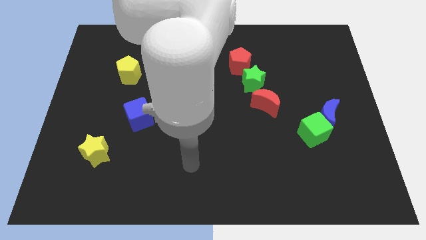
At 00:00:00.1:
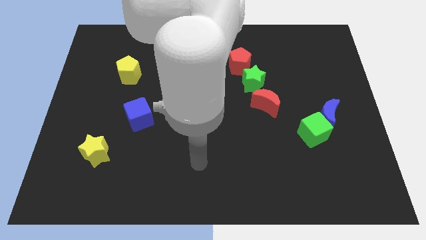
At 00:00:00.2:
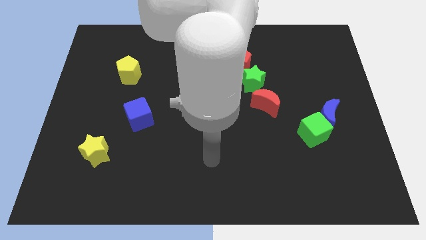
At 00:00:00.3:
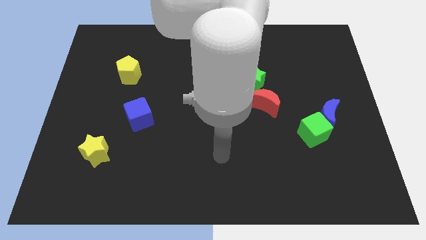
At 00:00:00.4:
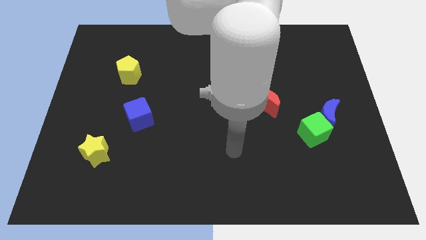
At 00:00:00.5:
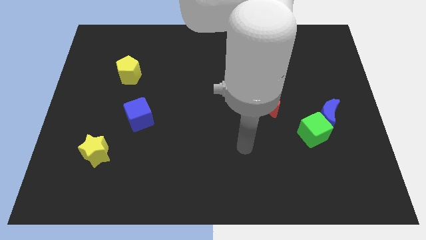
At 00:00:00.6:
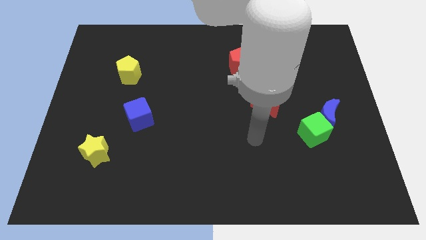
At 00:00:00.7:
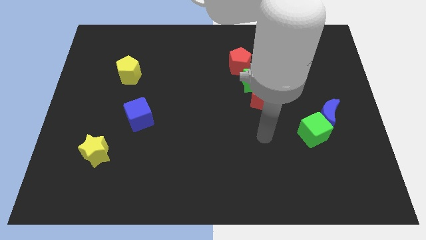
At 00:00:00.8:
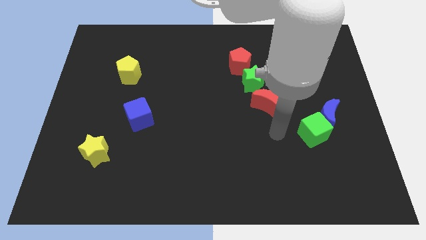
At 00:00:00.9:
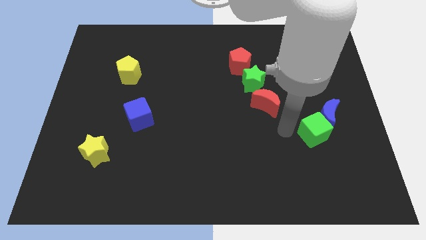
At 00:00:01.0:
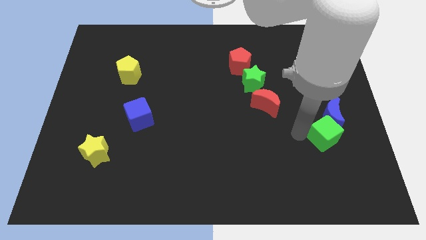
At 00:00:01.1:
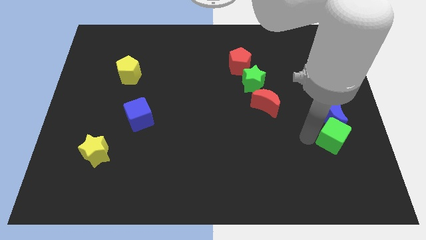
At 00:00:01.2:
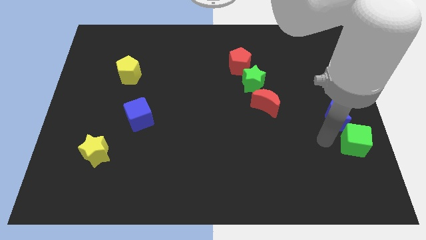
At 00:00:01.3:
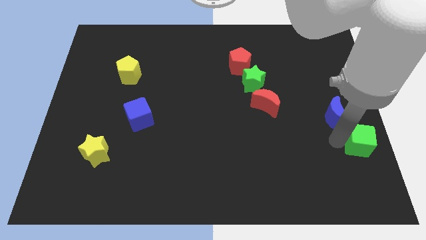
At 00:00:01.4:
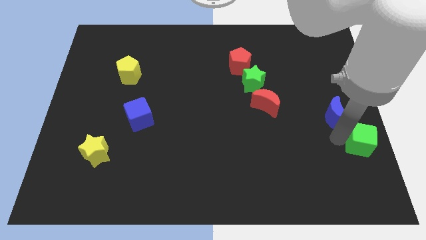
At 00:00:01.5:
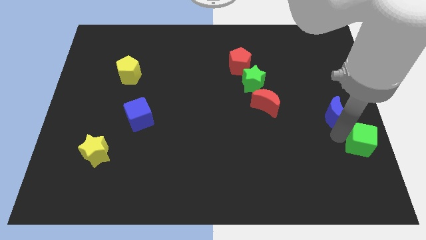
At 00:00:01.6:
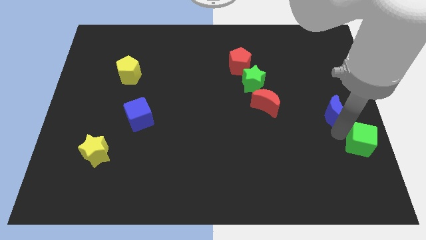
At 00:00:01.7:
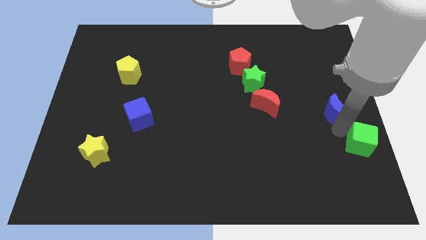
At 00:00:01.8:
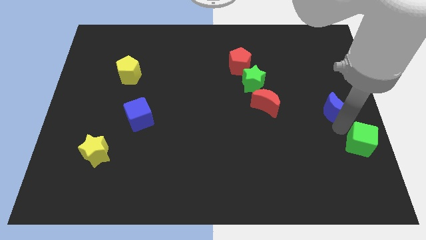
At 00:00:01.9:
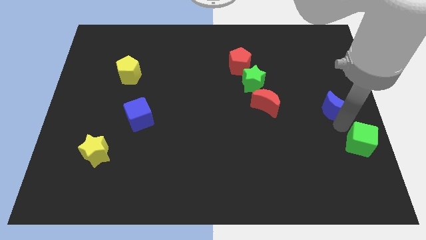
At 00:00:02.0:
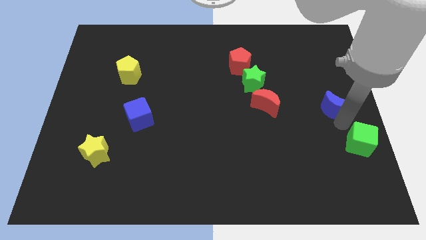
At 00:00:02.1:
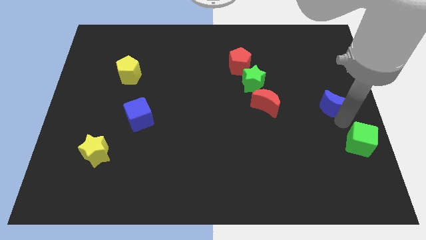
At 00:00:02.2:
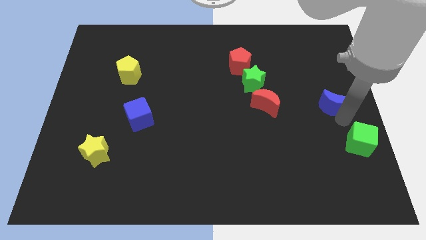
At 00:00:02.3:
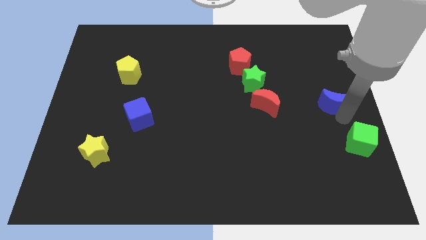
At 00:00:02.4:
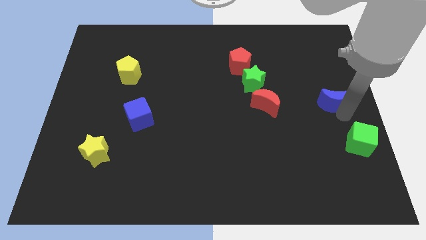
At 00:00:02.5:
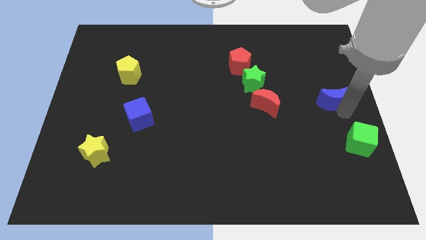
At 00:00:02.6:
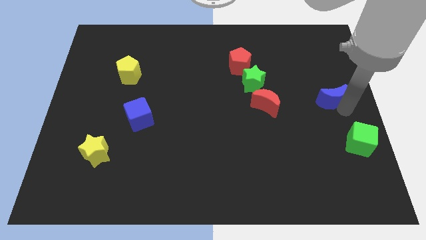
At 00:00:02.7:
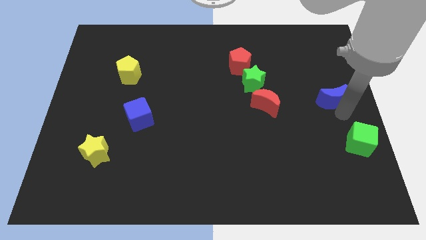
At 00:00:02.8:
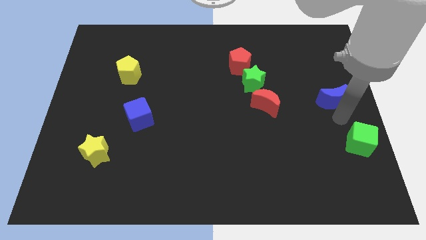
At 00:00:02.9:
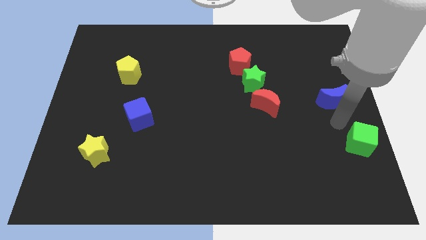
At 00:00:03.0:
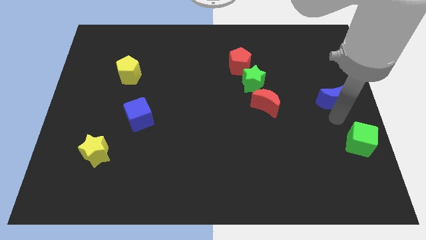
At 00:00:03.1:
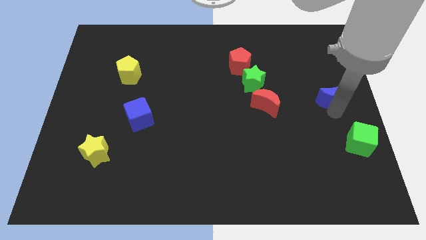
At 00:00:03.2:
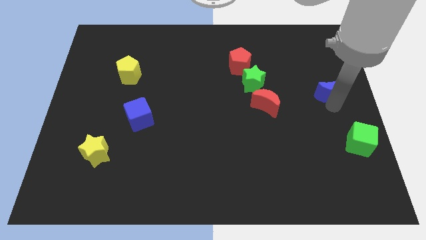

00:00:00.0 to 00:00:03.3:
move the blue moon up a little bit

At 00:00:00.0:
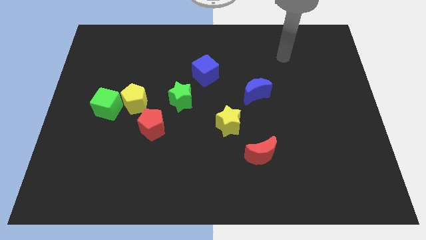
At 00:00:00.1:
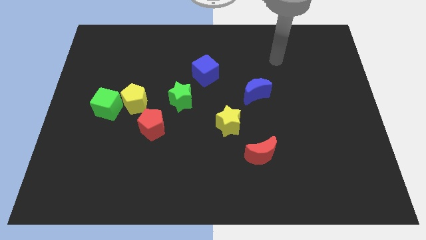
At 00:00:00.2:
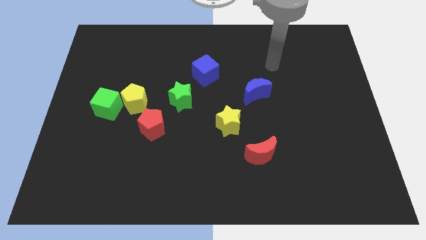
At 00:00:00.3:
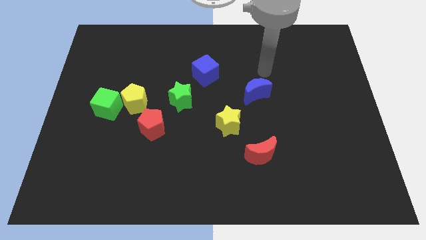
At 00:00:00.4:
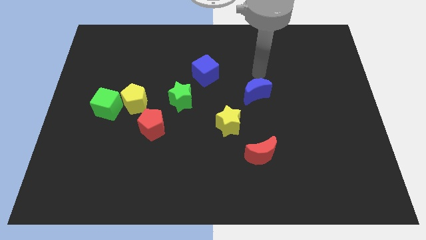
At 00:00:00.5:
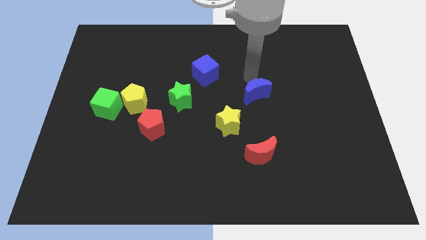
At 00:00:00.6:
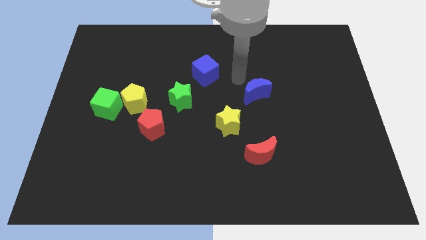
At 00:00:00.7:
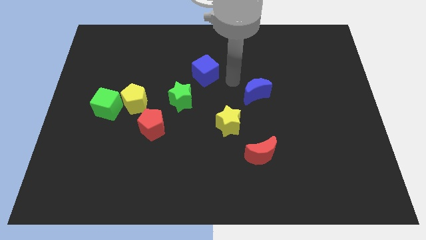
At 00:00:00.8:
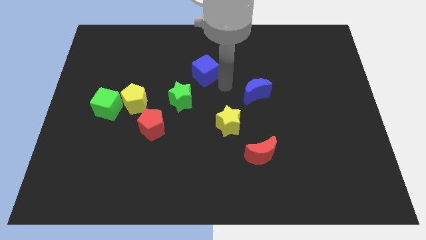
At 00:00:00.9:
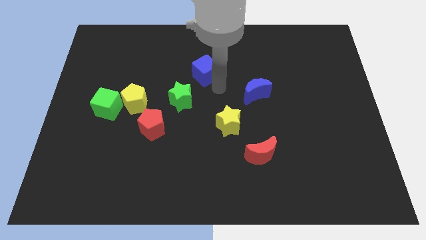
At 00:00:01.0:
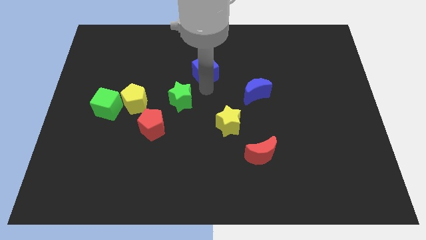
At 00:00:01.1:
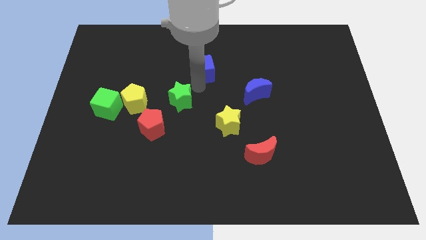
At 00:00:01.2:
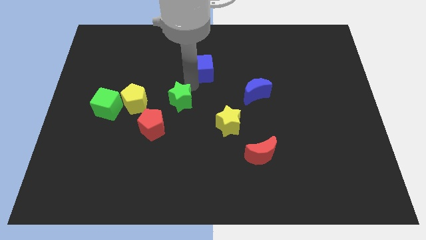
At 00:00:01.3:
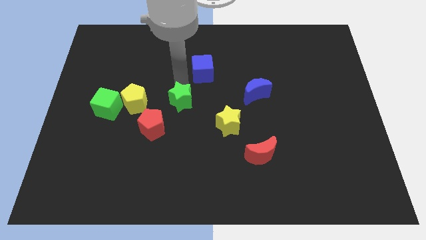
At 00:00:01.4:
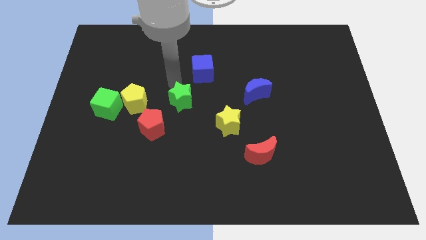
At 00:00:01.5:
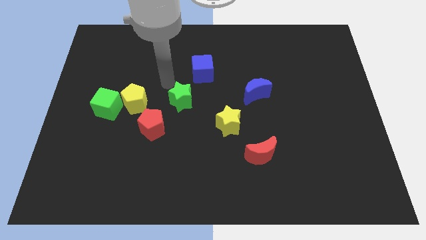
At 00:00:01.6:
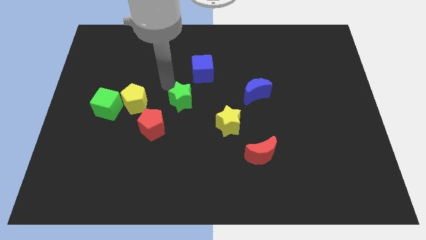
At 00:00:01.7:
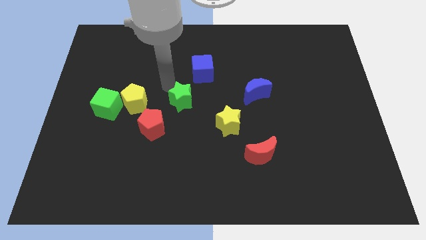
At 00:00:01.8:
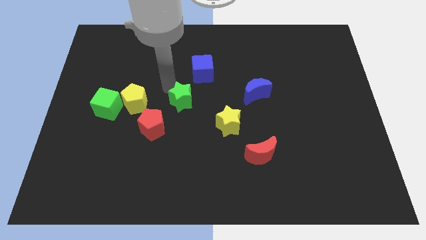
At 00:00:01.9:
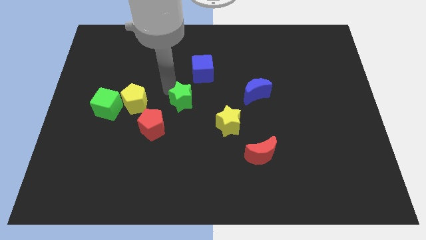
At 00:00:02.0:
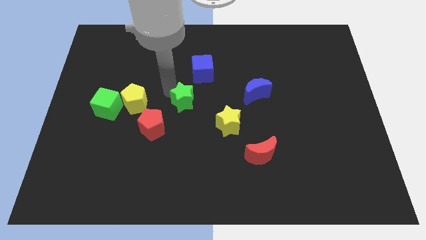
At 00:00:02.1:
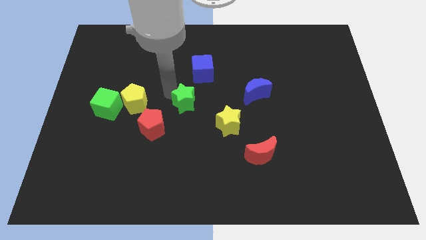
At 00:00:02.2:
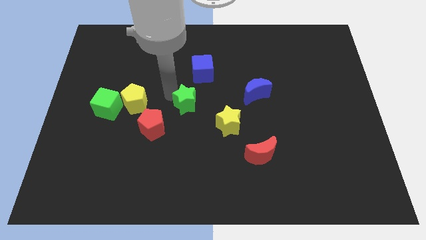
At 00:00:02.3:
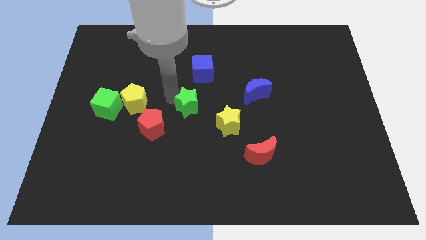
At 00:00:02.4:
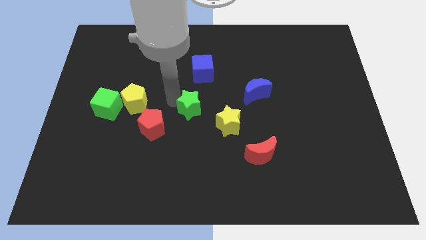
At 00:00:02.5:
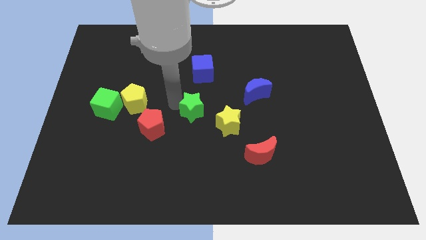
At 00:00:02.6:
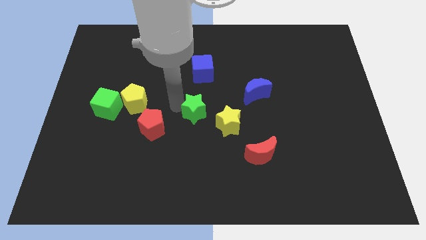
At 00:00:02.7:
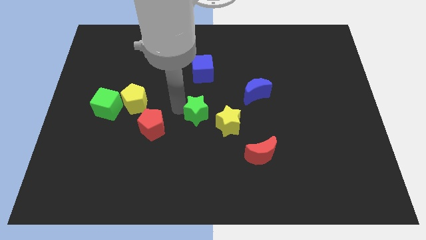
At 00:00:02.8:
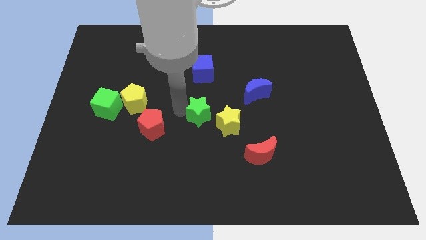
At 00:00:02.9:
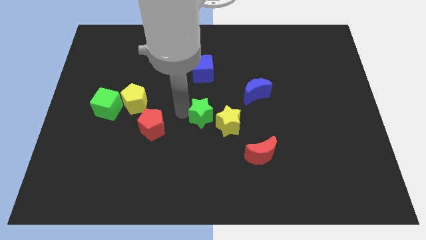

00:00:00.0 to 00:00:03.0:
slightly push the green star down and to the right diagonally

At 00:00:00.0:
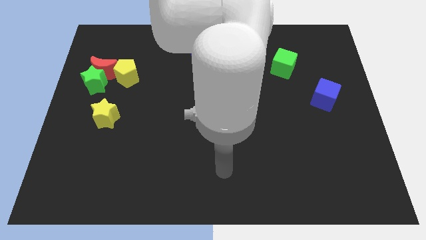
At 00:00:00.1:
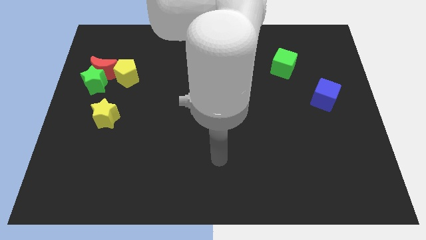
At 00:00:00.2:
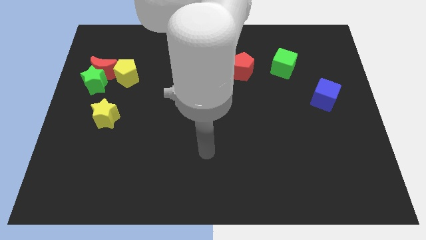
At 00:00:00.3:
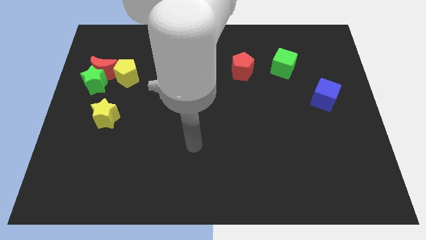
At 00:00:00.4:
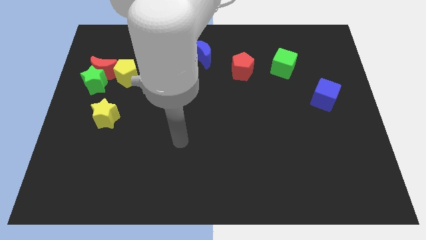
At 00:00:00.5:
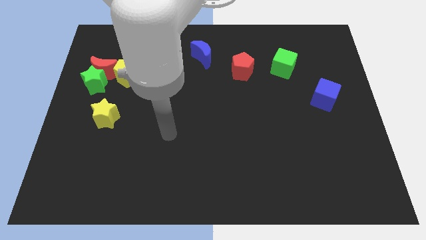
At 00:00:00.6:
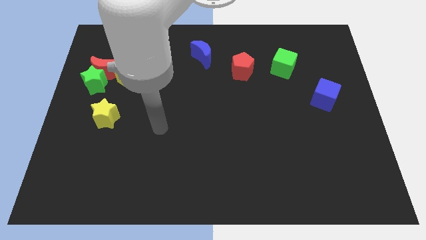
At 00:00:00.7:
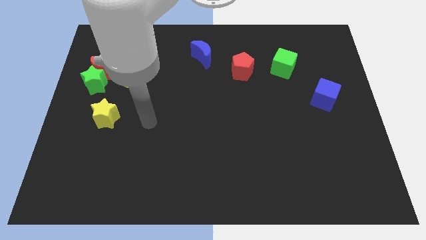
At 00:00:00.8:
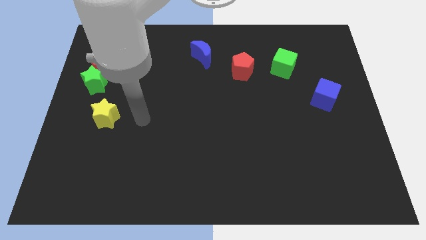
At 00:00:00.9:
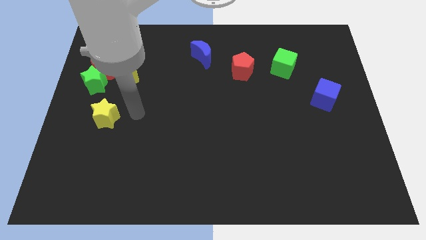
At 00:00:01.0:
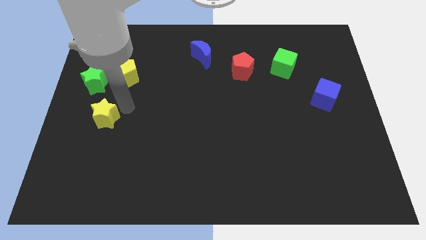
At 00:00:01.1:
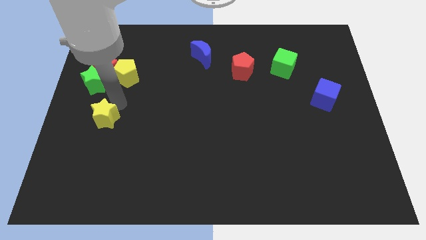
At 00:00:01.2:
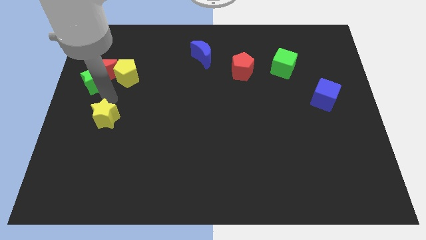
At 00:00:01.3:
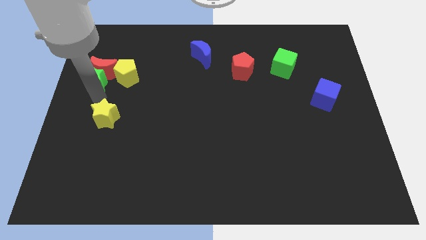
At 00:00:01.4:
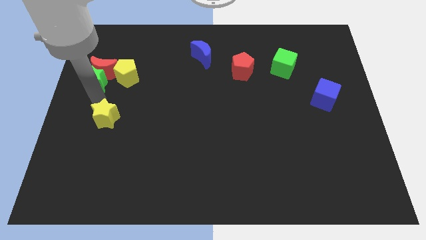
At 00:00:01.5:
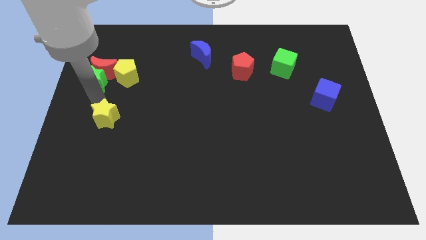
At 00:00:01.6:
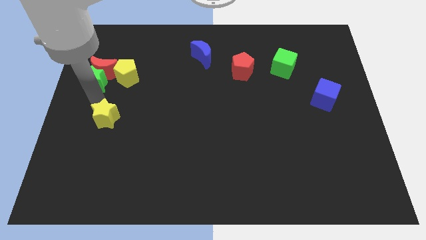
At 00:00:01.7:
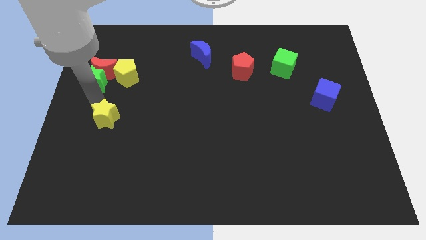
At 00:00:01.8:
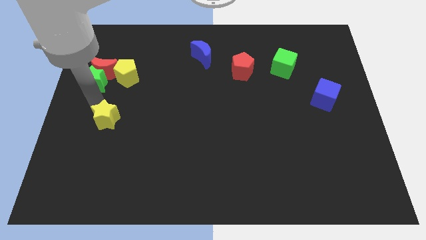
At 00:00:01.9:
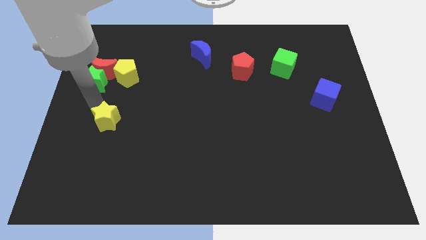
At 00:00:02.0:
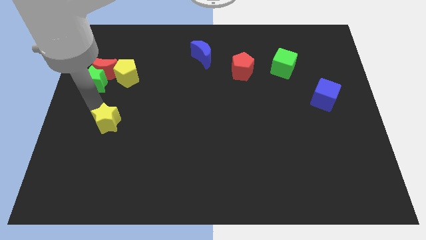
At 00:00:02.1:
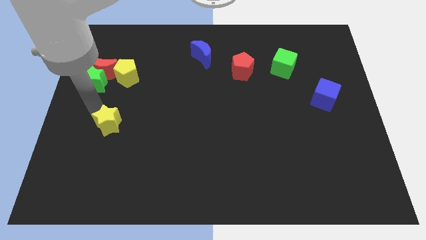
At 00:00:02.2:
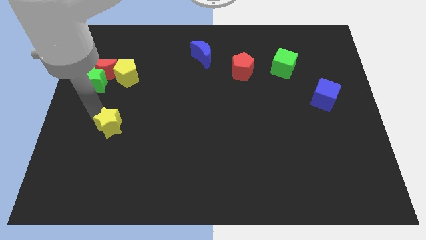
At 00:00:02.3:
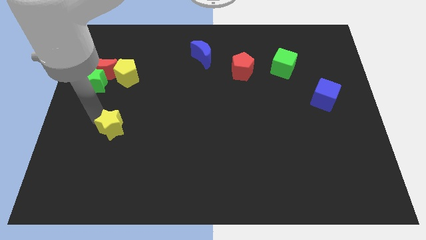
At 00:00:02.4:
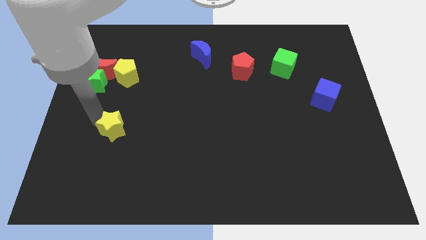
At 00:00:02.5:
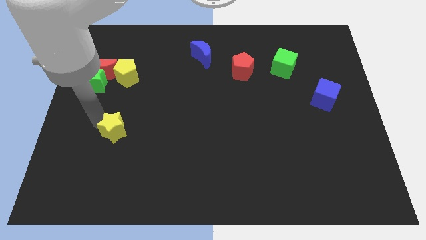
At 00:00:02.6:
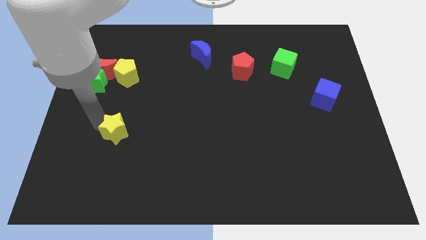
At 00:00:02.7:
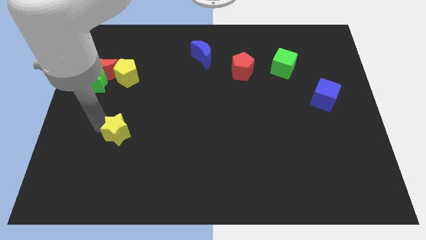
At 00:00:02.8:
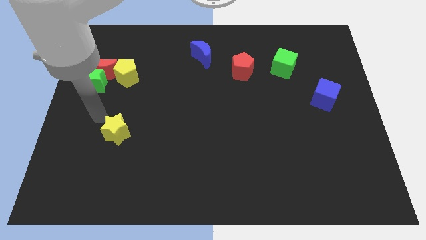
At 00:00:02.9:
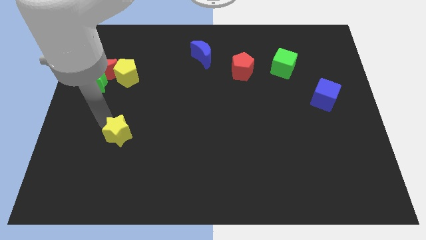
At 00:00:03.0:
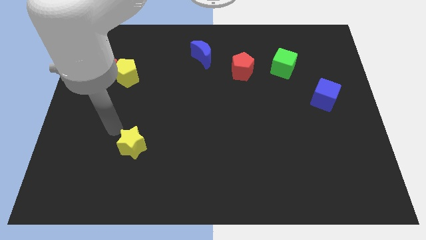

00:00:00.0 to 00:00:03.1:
push the yellow star downwards and then right a little
